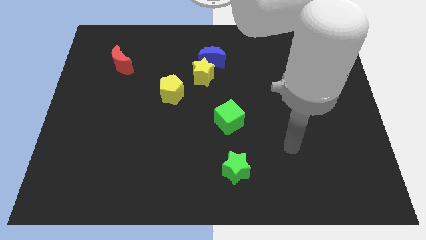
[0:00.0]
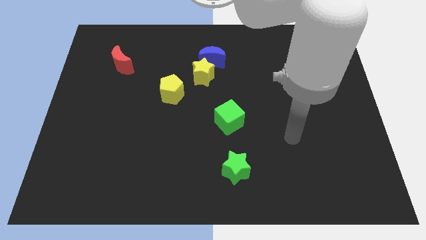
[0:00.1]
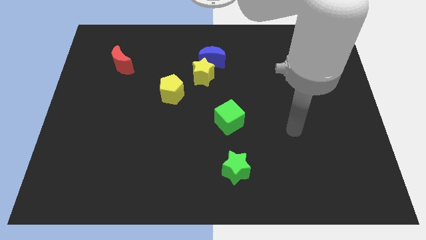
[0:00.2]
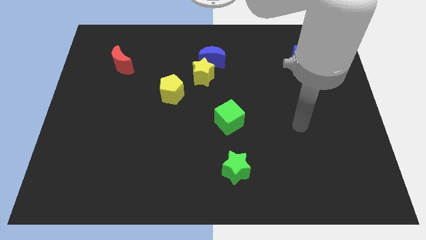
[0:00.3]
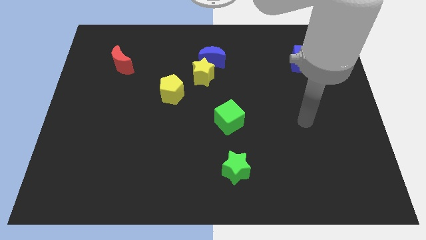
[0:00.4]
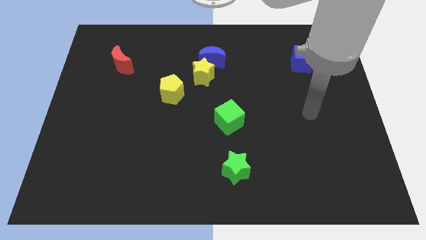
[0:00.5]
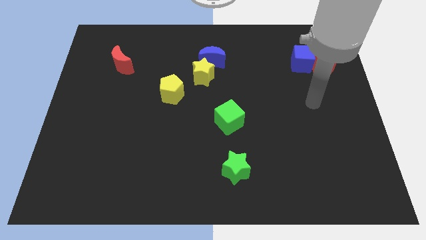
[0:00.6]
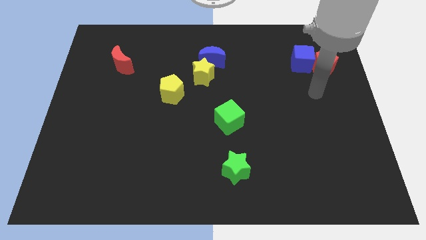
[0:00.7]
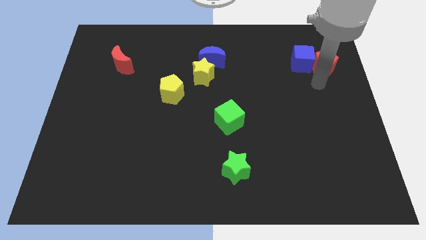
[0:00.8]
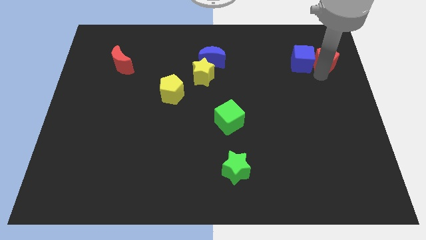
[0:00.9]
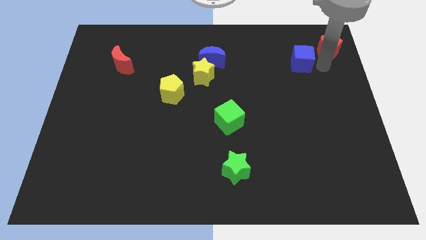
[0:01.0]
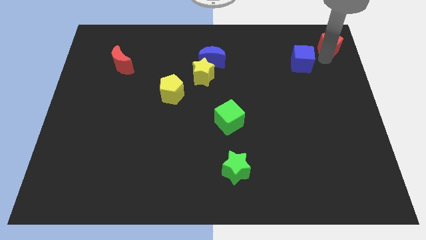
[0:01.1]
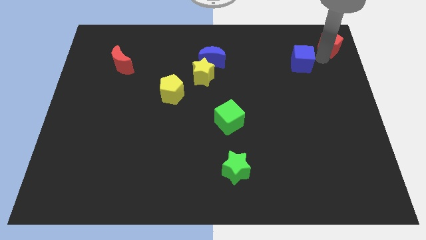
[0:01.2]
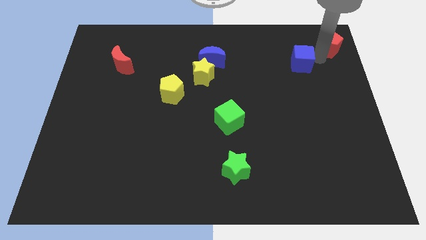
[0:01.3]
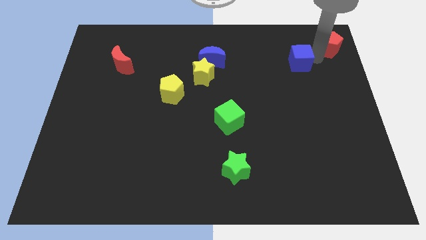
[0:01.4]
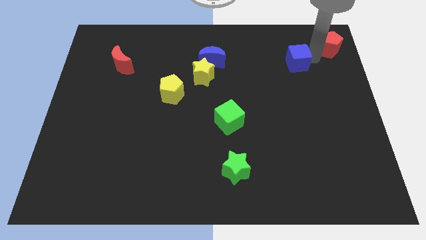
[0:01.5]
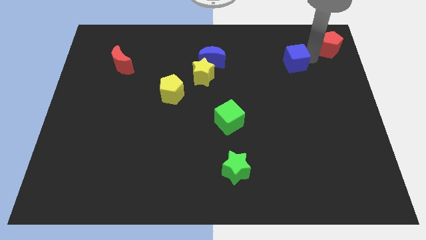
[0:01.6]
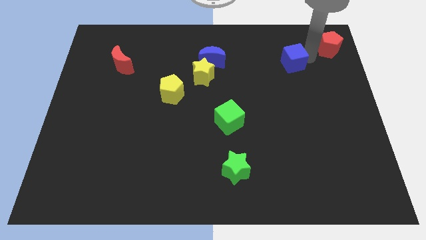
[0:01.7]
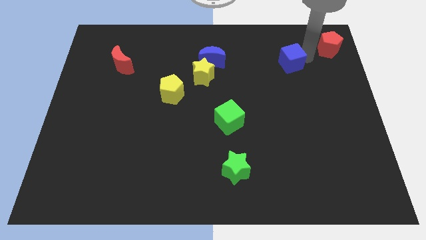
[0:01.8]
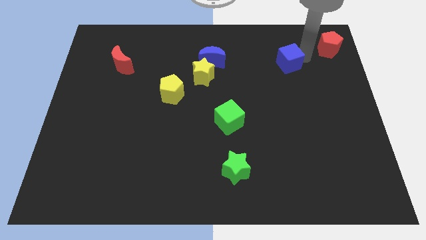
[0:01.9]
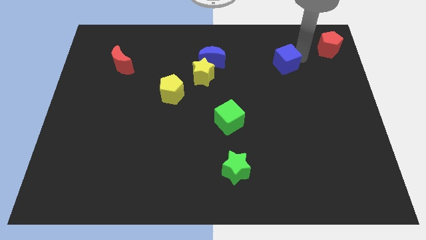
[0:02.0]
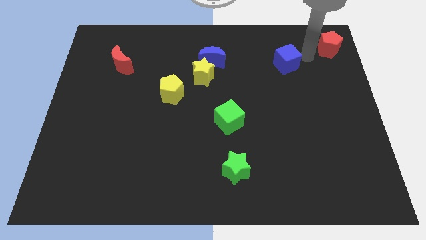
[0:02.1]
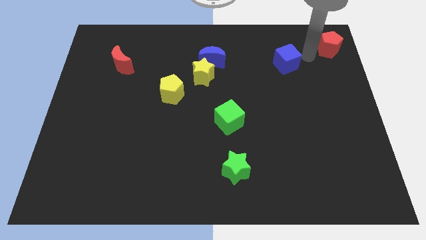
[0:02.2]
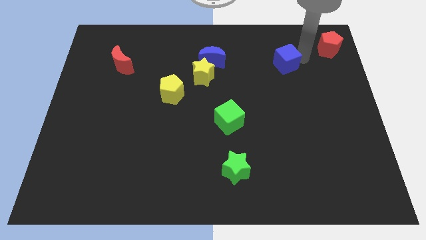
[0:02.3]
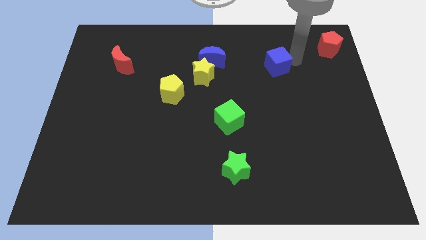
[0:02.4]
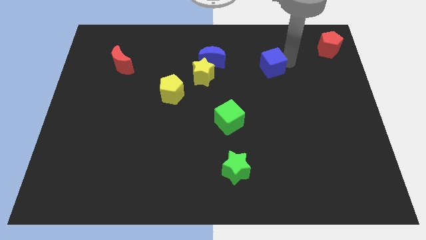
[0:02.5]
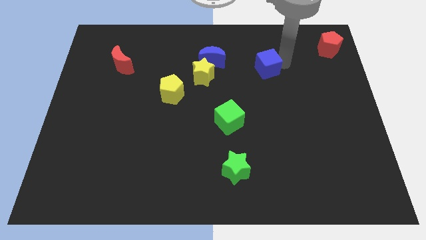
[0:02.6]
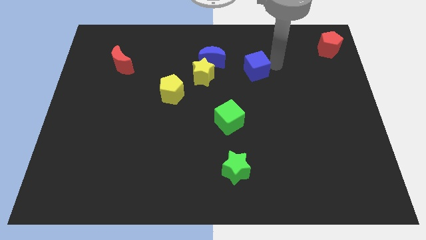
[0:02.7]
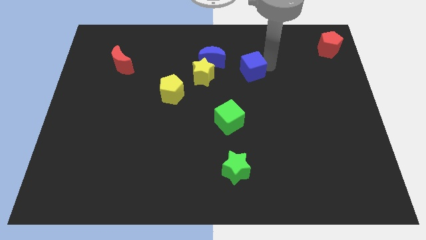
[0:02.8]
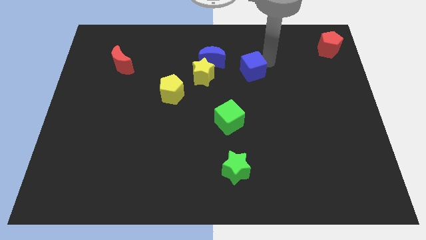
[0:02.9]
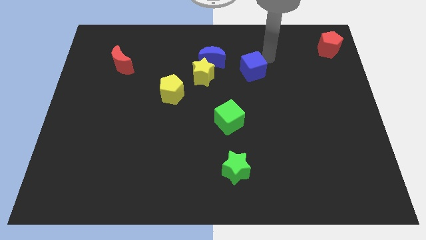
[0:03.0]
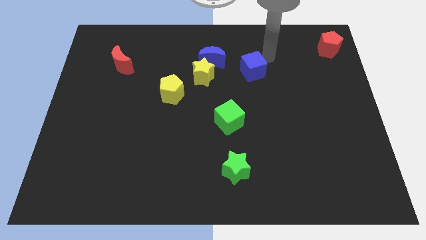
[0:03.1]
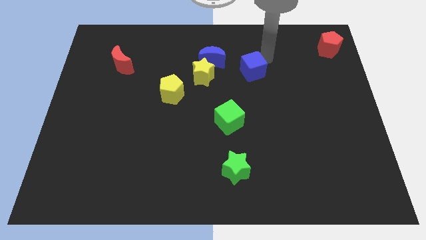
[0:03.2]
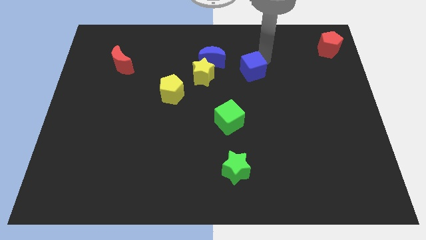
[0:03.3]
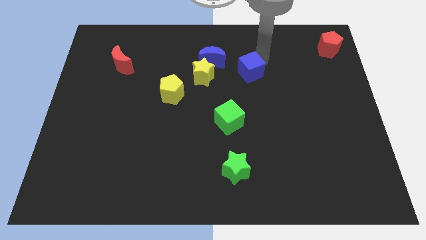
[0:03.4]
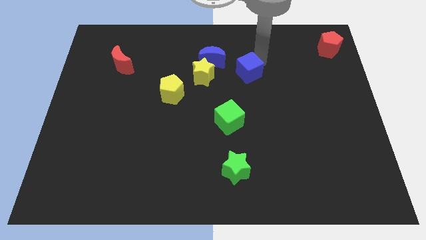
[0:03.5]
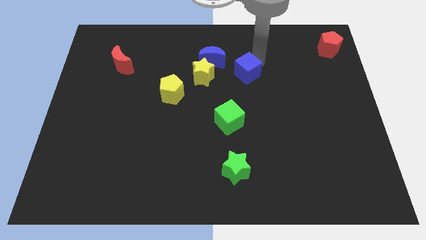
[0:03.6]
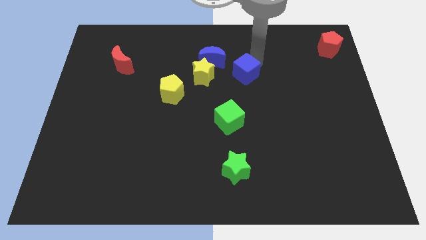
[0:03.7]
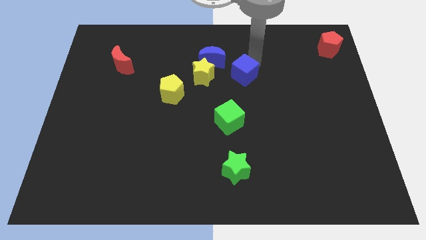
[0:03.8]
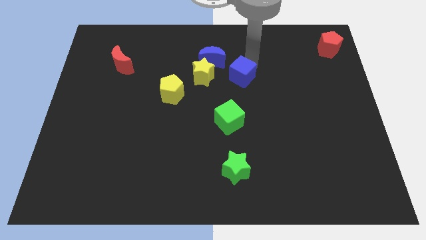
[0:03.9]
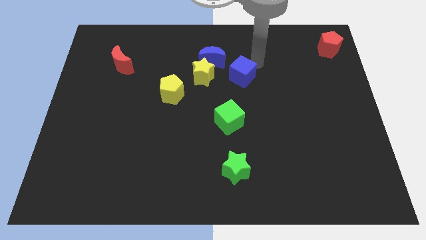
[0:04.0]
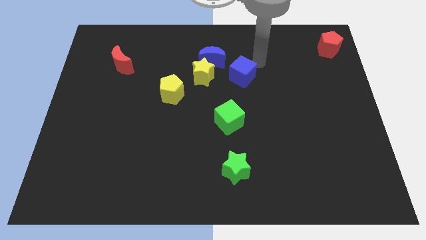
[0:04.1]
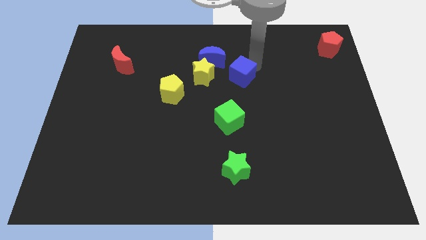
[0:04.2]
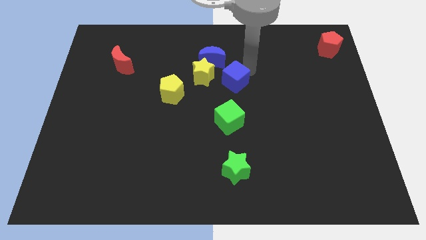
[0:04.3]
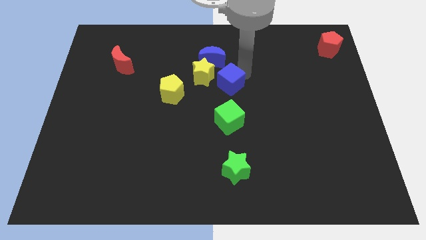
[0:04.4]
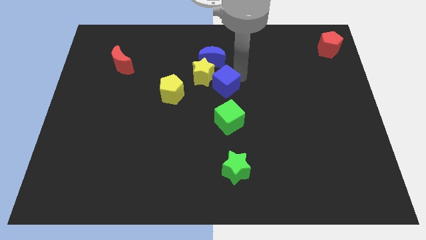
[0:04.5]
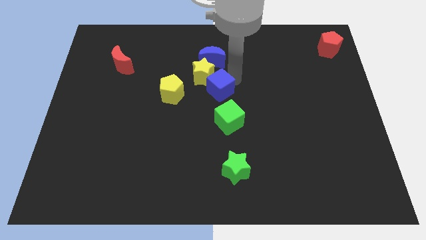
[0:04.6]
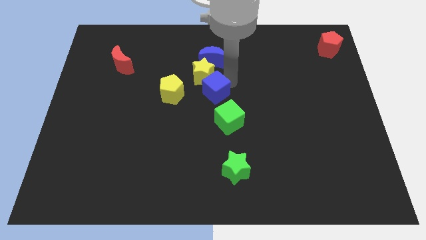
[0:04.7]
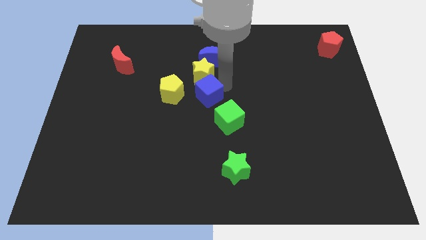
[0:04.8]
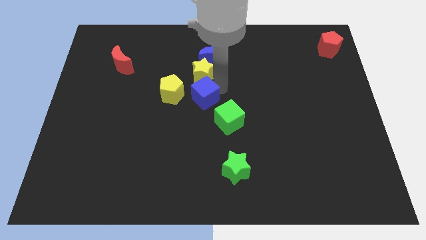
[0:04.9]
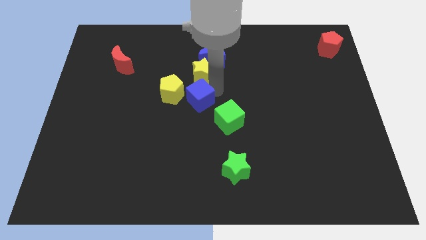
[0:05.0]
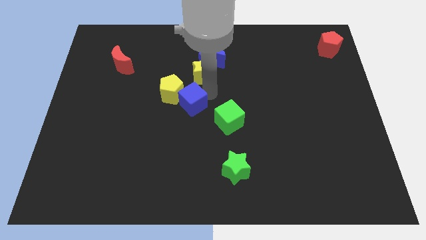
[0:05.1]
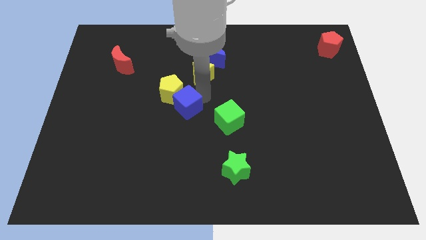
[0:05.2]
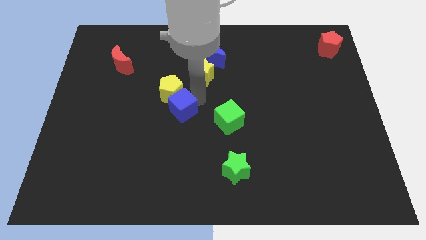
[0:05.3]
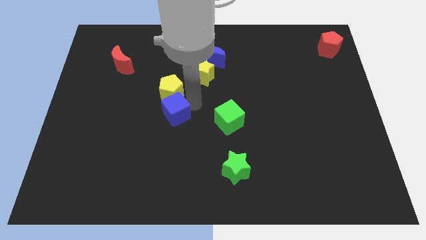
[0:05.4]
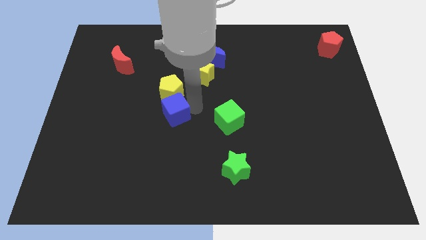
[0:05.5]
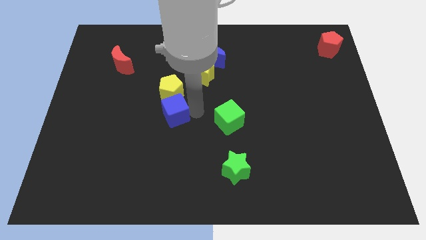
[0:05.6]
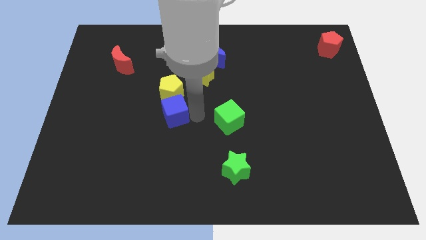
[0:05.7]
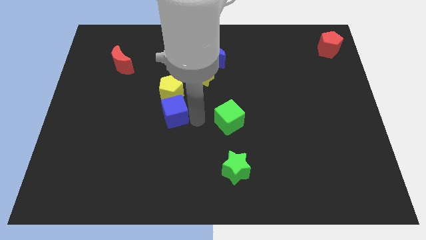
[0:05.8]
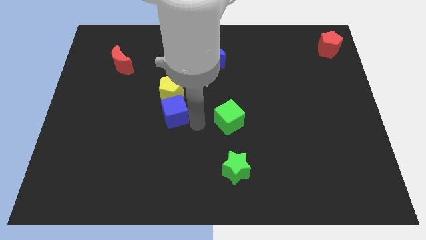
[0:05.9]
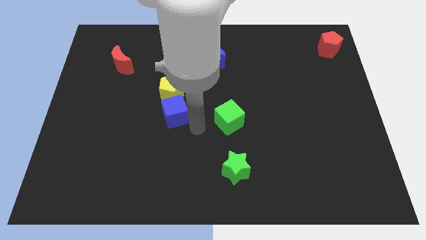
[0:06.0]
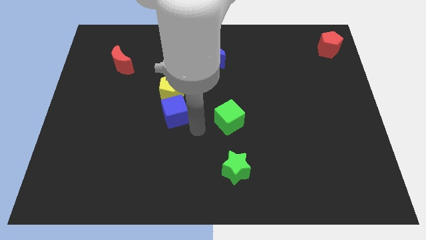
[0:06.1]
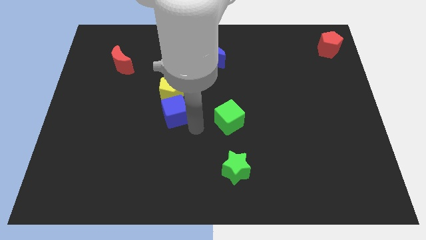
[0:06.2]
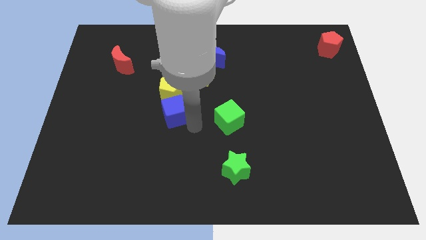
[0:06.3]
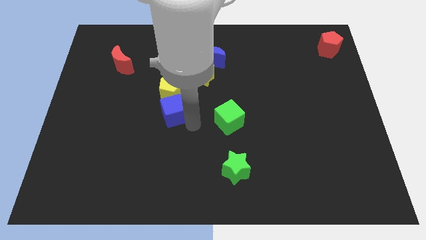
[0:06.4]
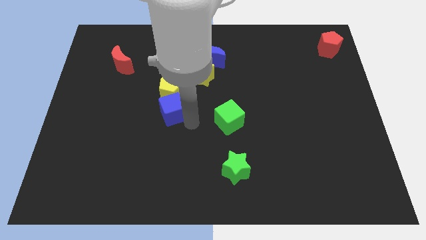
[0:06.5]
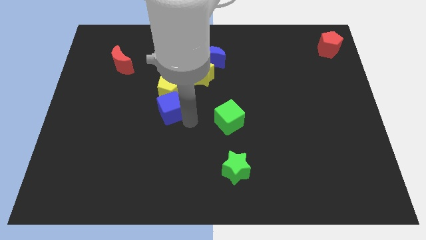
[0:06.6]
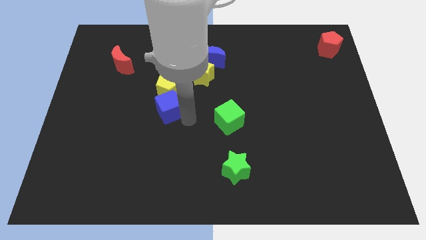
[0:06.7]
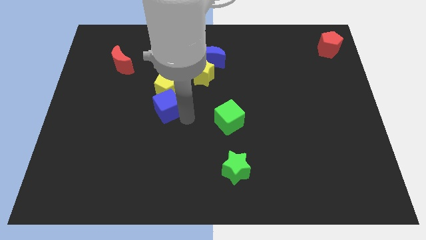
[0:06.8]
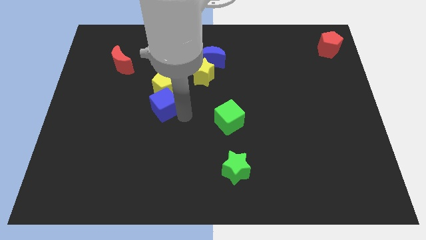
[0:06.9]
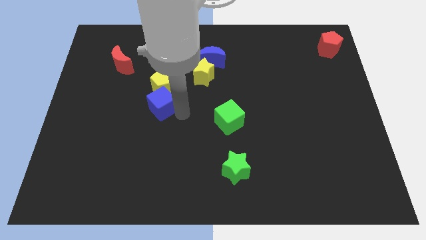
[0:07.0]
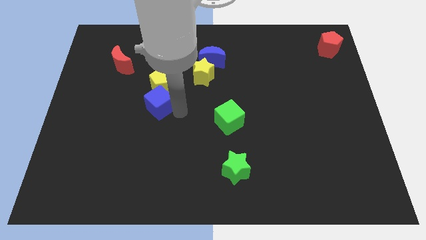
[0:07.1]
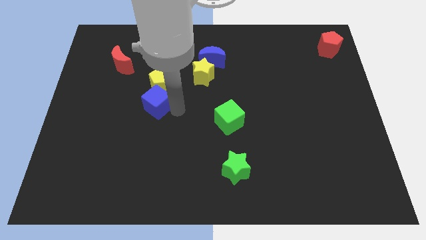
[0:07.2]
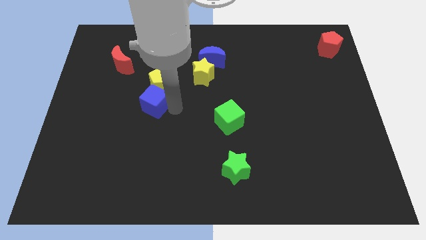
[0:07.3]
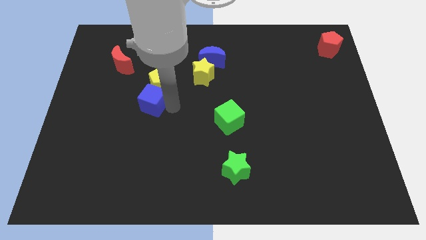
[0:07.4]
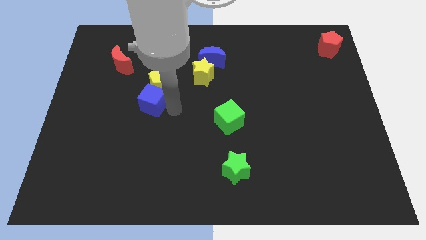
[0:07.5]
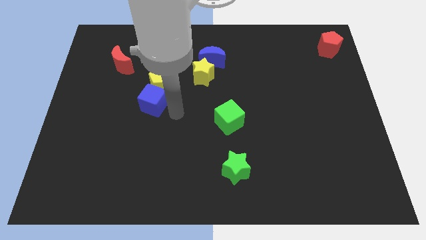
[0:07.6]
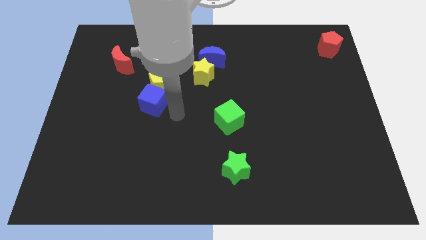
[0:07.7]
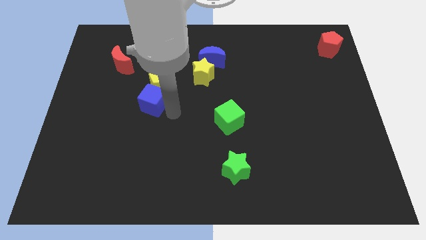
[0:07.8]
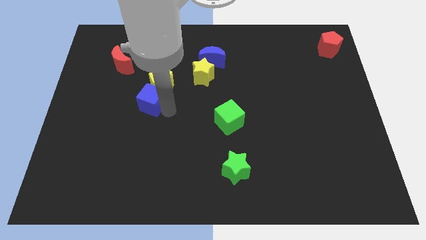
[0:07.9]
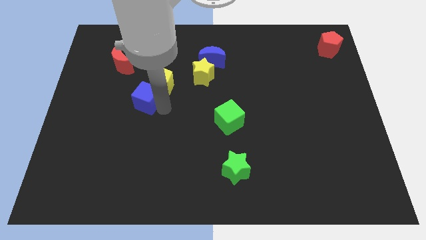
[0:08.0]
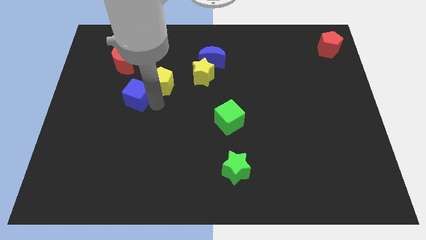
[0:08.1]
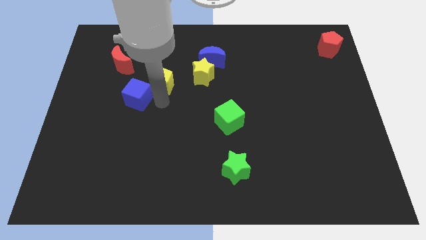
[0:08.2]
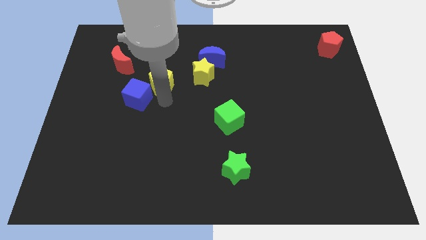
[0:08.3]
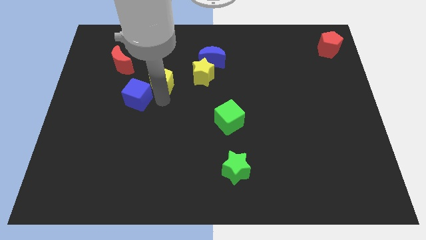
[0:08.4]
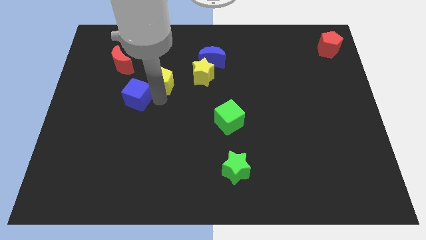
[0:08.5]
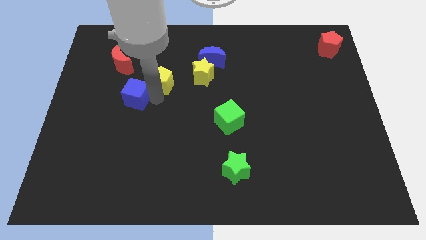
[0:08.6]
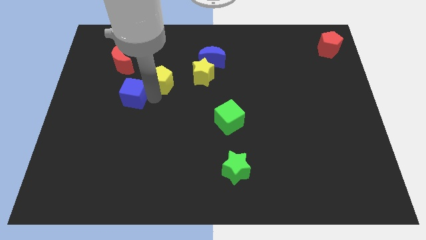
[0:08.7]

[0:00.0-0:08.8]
move the blue cube to the bottom of the red moon
